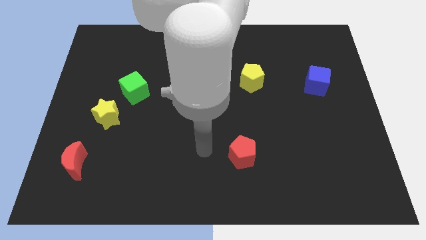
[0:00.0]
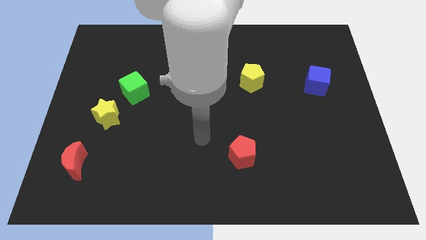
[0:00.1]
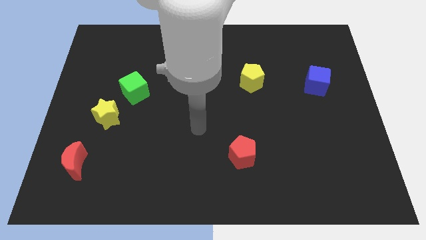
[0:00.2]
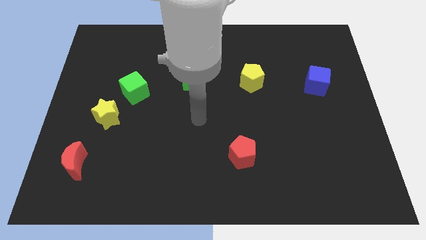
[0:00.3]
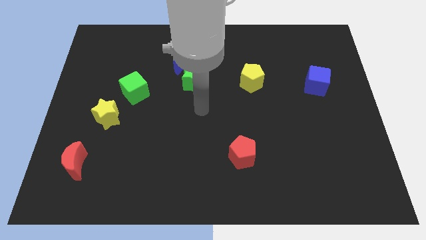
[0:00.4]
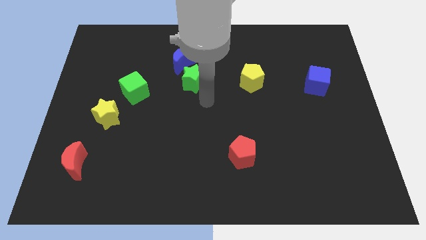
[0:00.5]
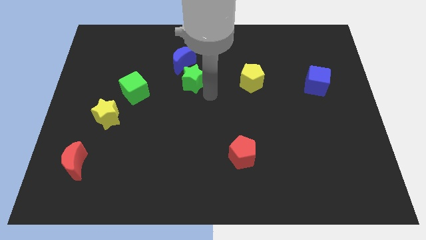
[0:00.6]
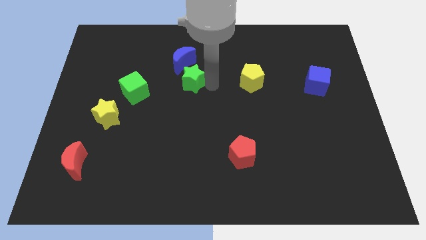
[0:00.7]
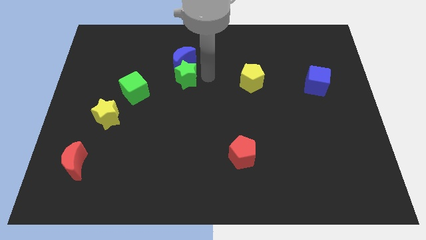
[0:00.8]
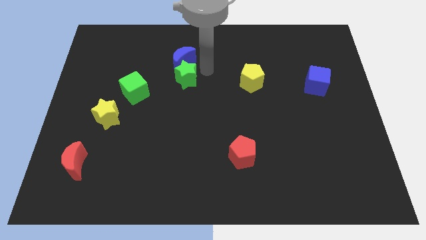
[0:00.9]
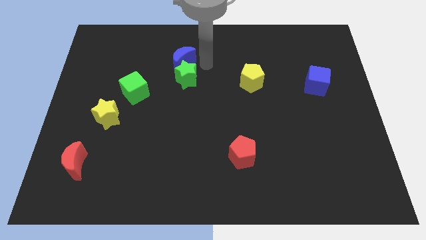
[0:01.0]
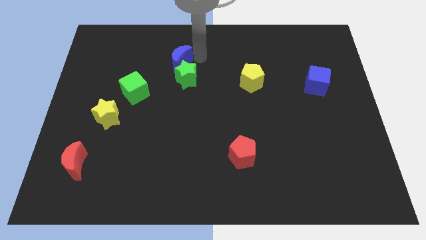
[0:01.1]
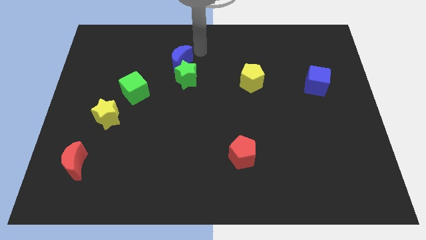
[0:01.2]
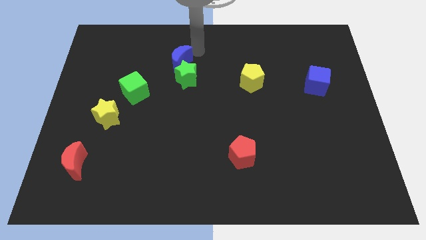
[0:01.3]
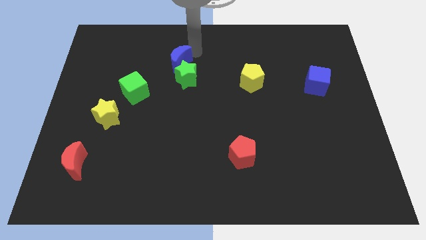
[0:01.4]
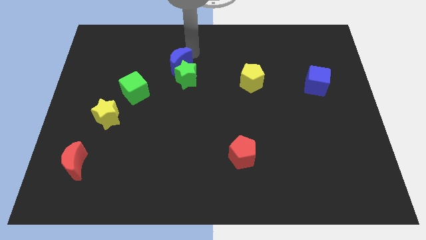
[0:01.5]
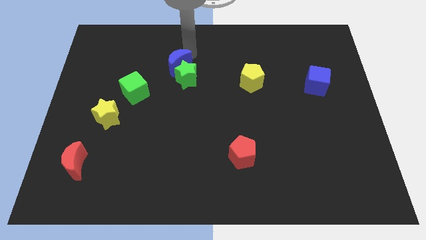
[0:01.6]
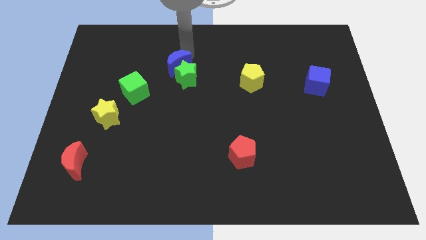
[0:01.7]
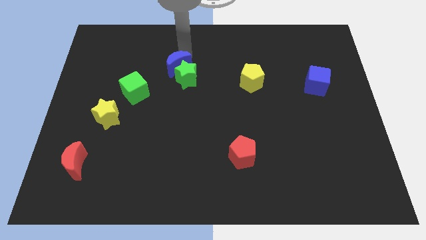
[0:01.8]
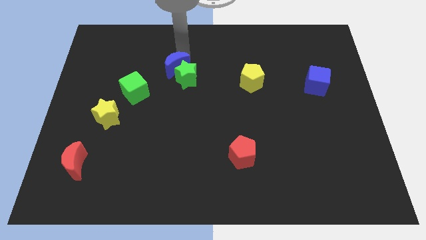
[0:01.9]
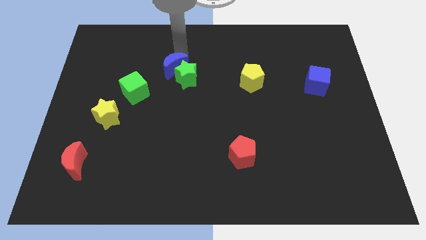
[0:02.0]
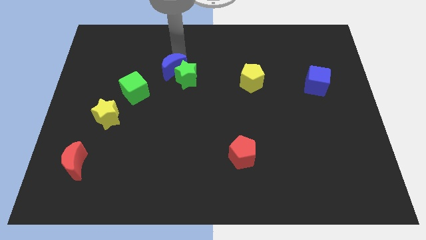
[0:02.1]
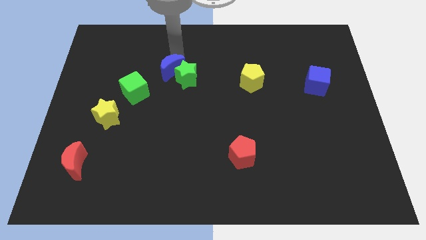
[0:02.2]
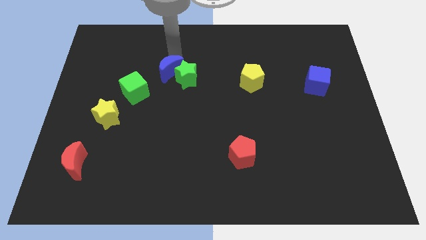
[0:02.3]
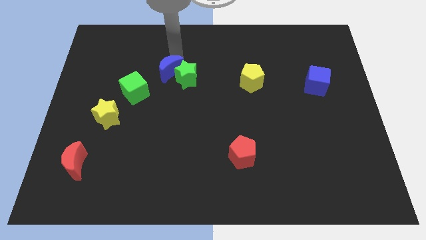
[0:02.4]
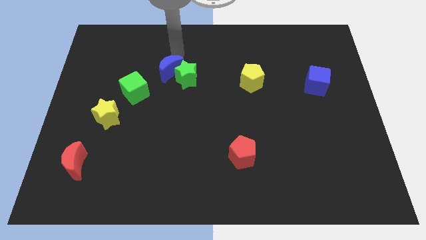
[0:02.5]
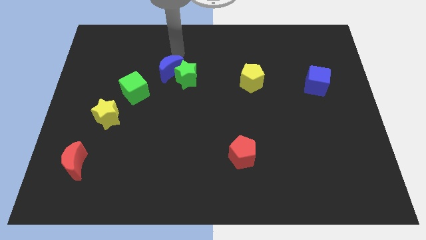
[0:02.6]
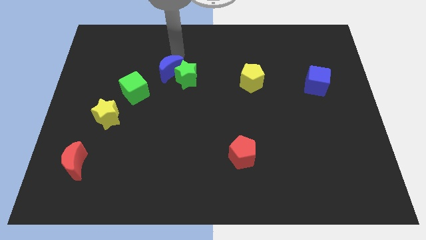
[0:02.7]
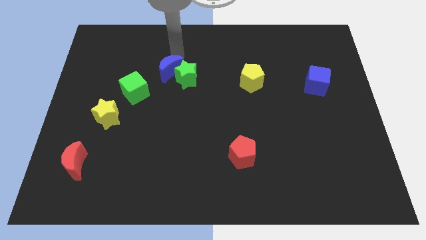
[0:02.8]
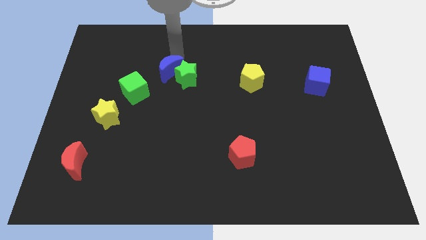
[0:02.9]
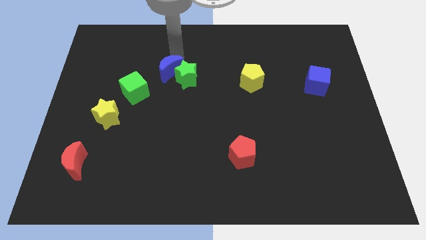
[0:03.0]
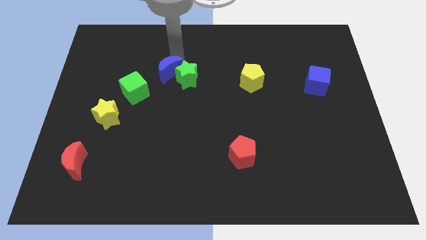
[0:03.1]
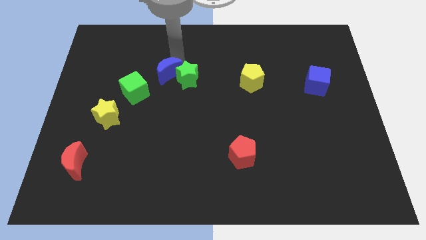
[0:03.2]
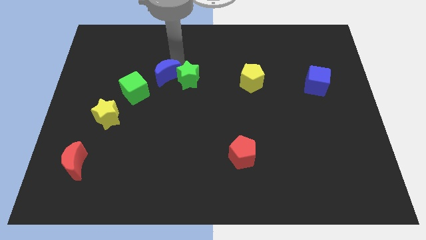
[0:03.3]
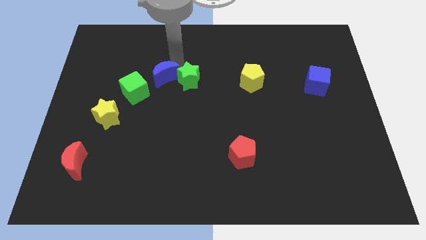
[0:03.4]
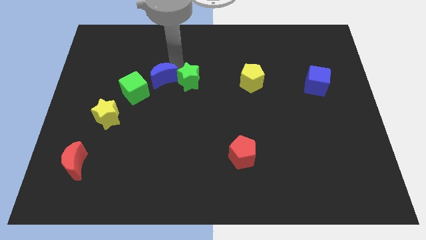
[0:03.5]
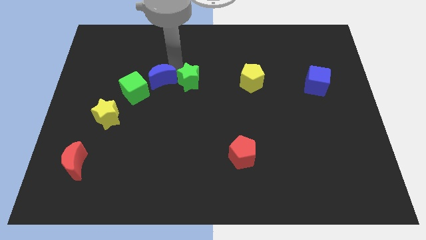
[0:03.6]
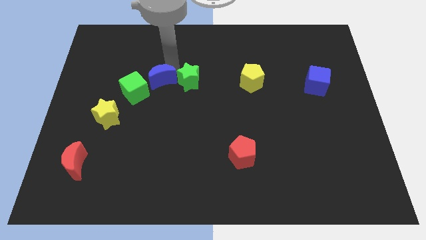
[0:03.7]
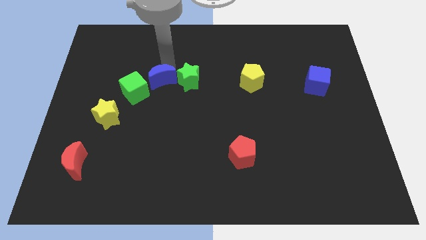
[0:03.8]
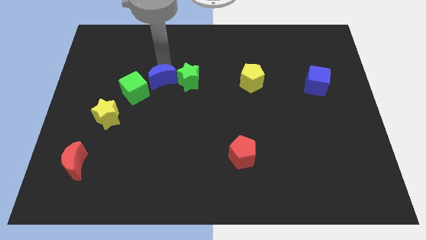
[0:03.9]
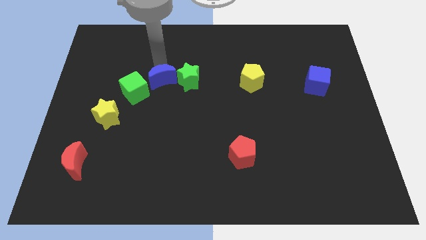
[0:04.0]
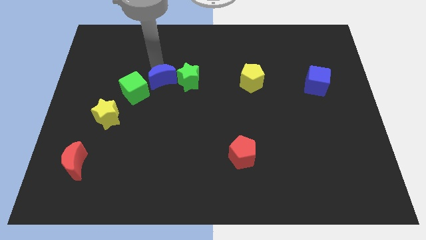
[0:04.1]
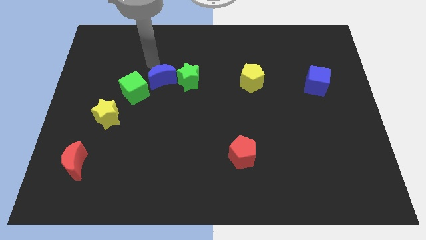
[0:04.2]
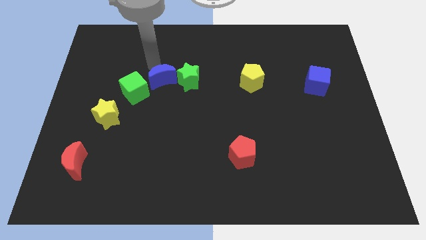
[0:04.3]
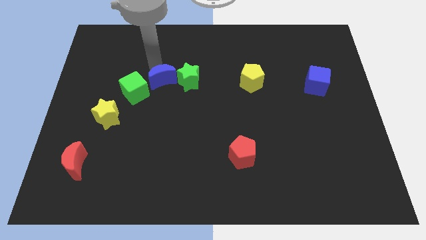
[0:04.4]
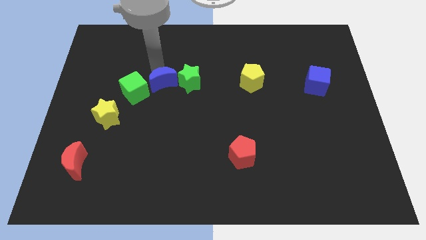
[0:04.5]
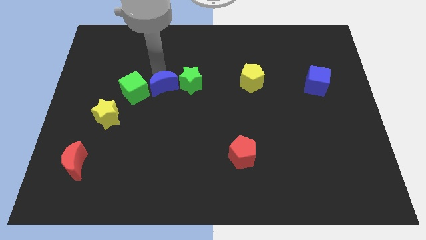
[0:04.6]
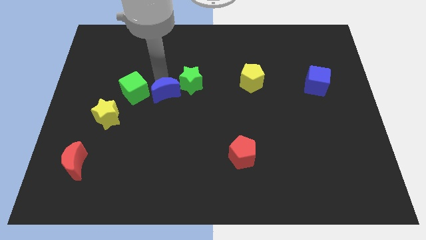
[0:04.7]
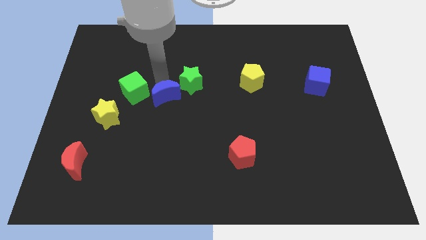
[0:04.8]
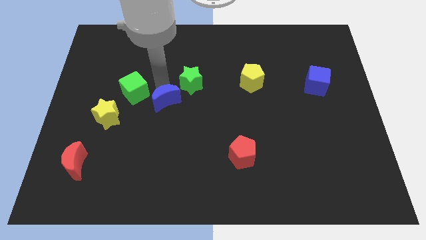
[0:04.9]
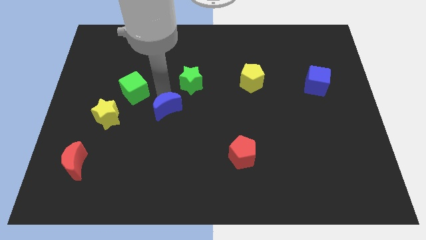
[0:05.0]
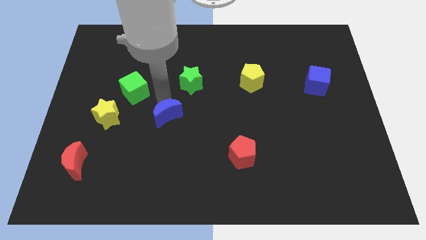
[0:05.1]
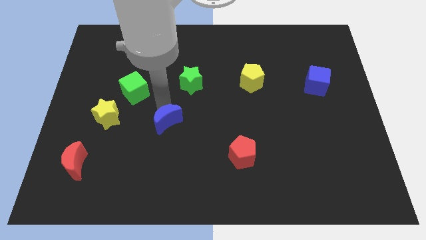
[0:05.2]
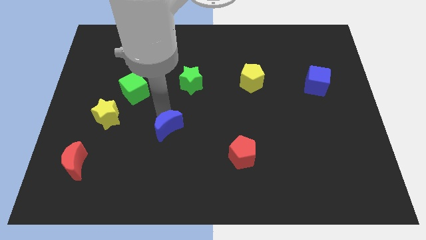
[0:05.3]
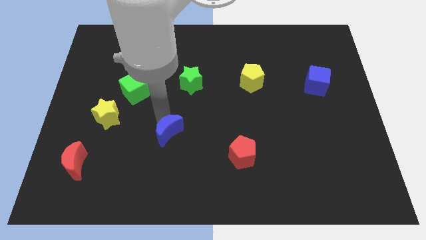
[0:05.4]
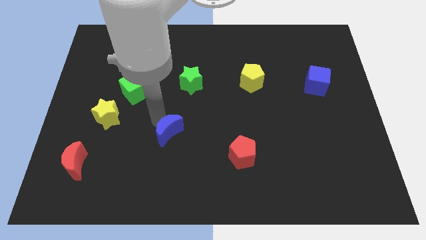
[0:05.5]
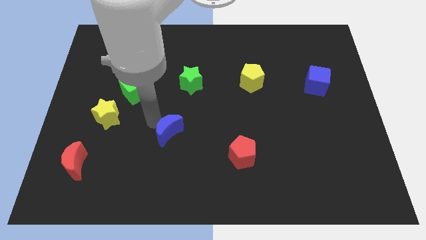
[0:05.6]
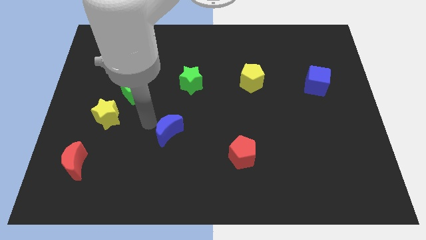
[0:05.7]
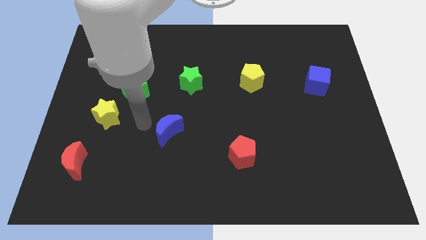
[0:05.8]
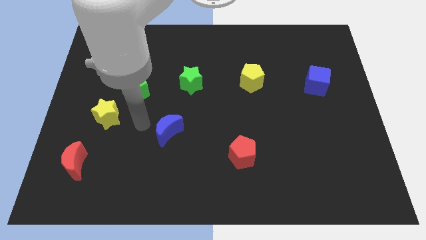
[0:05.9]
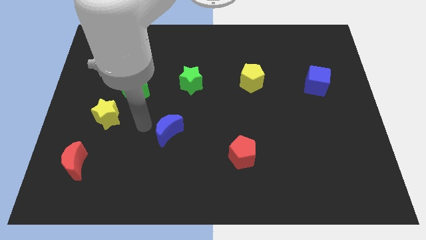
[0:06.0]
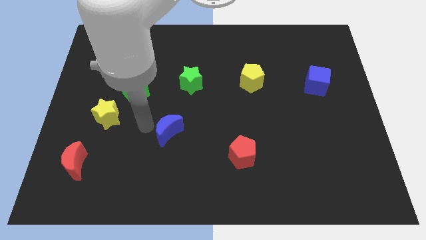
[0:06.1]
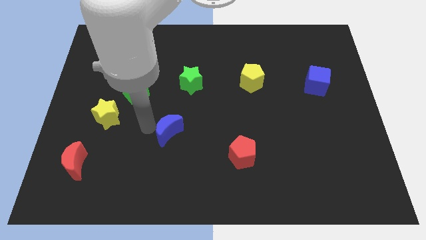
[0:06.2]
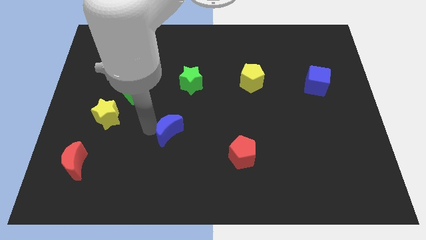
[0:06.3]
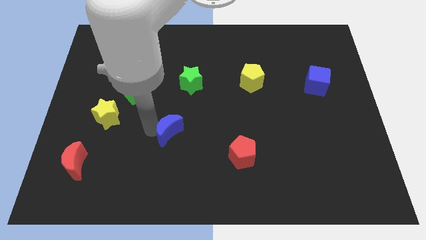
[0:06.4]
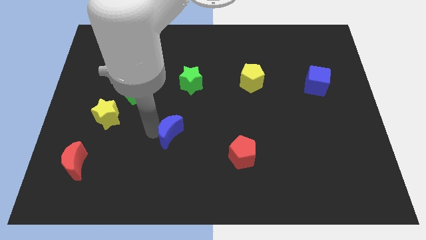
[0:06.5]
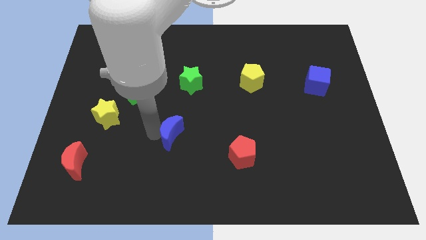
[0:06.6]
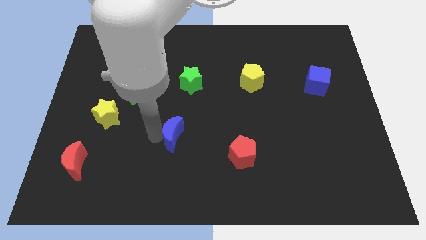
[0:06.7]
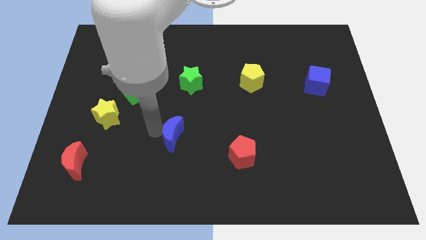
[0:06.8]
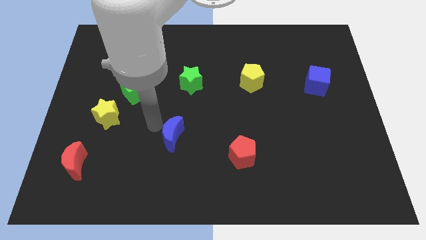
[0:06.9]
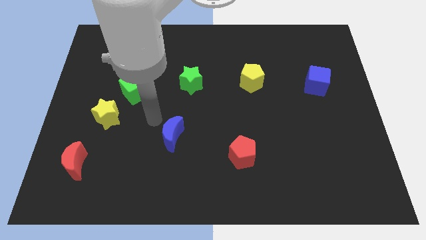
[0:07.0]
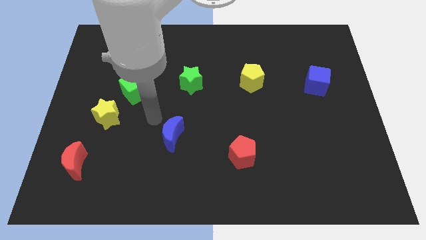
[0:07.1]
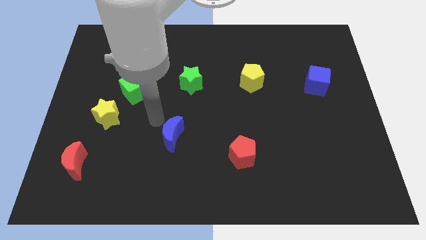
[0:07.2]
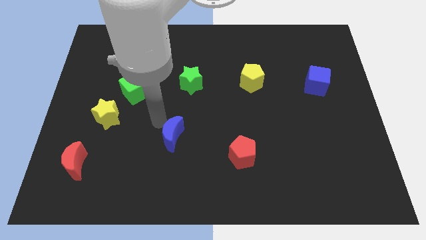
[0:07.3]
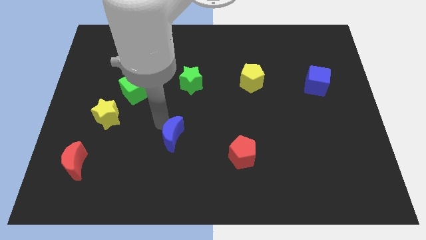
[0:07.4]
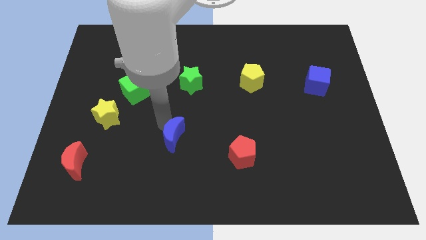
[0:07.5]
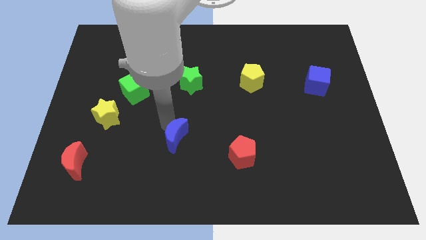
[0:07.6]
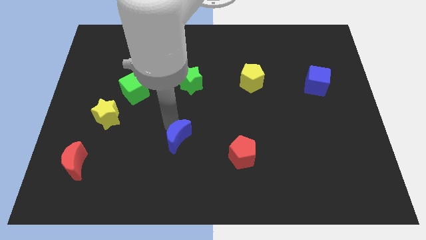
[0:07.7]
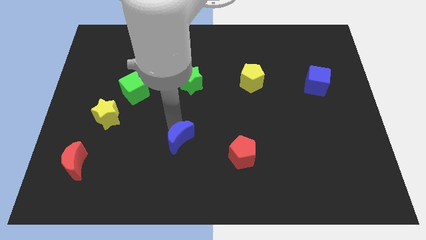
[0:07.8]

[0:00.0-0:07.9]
push the blue moon left of the red pentagon
